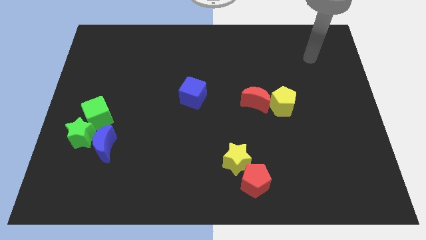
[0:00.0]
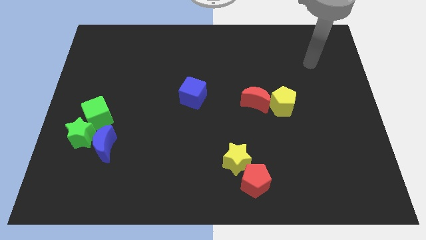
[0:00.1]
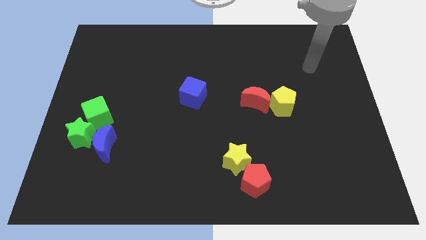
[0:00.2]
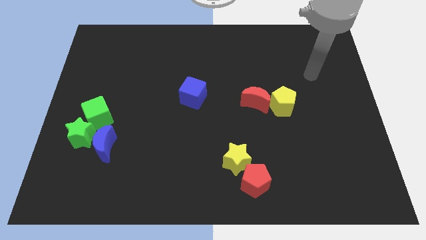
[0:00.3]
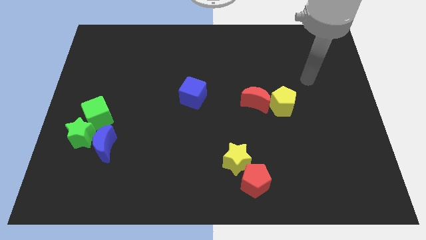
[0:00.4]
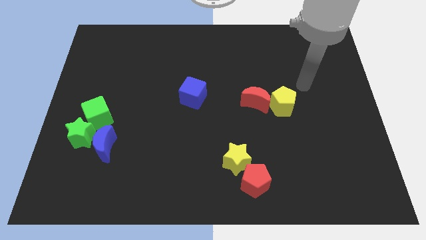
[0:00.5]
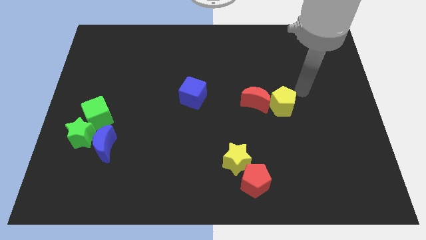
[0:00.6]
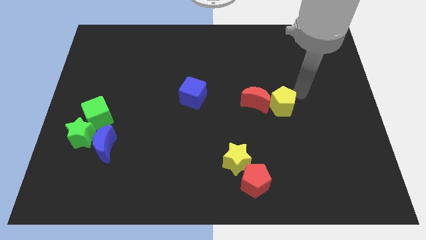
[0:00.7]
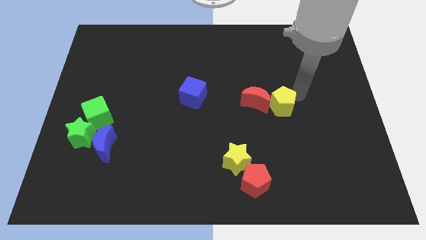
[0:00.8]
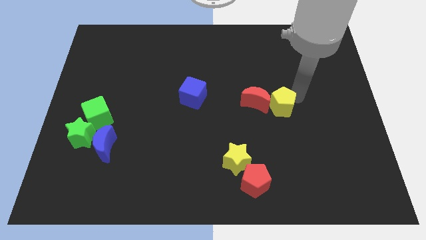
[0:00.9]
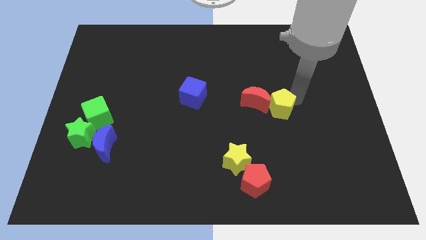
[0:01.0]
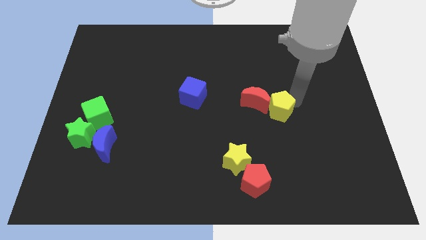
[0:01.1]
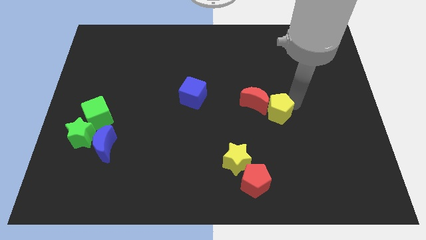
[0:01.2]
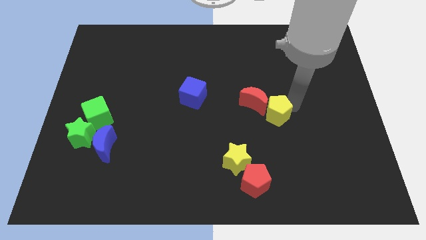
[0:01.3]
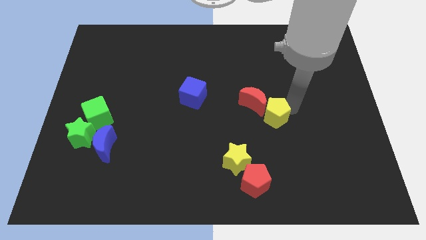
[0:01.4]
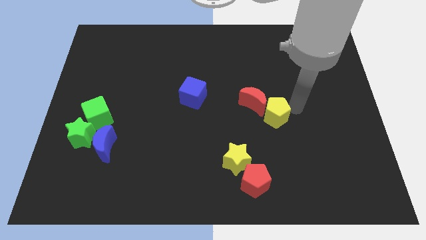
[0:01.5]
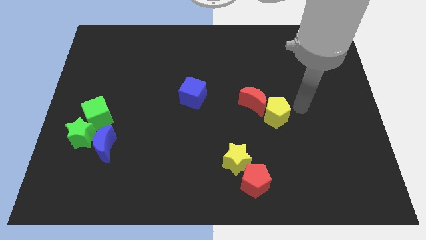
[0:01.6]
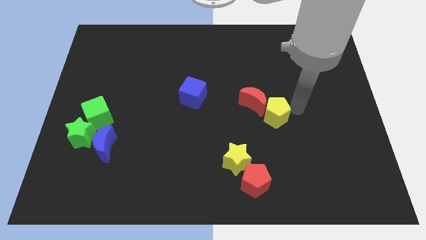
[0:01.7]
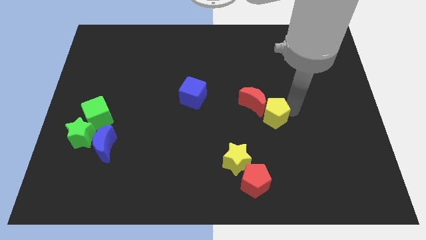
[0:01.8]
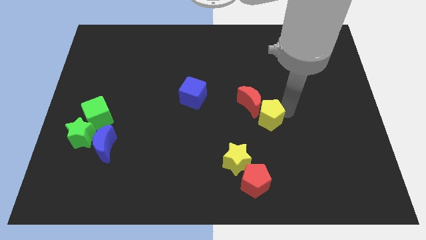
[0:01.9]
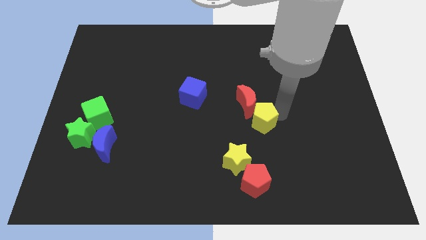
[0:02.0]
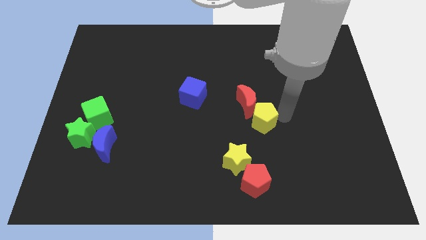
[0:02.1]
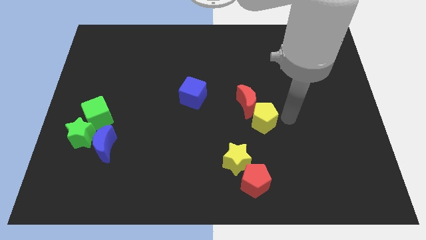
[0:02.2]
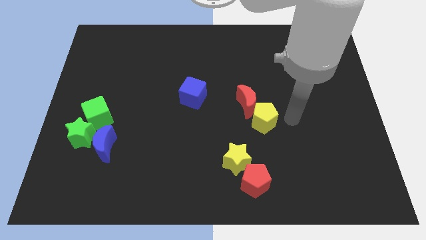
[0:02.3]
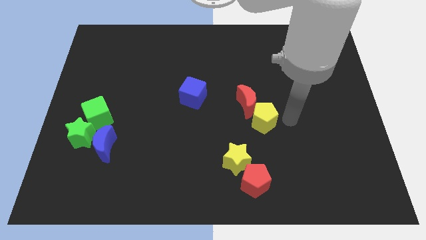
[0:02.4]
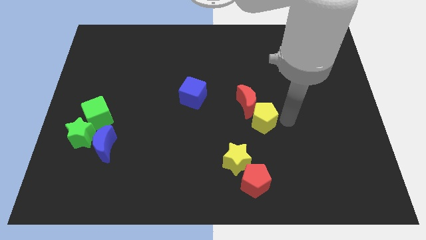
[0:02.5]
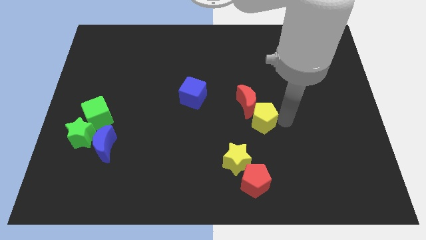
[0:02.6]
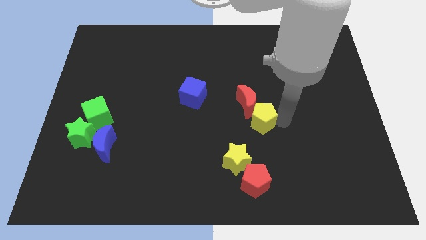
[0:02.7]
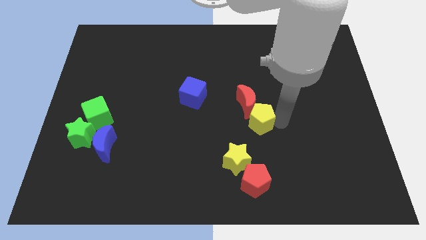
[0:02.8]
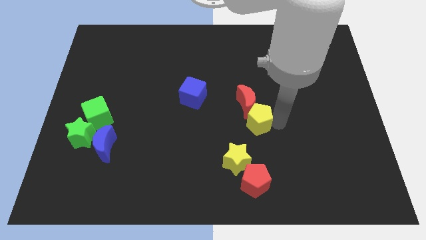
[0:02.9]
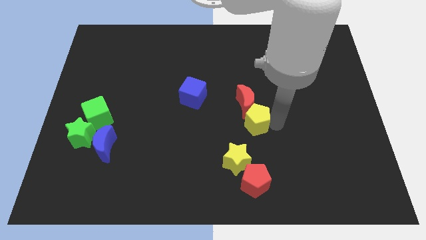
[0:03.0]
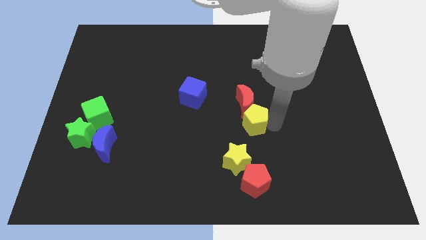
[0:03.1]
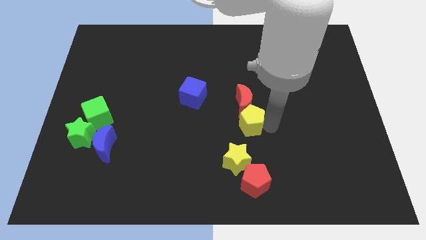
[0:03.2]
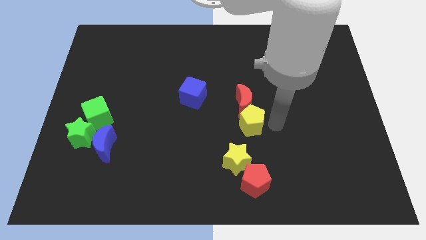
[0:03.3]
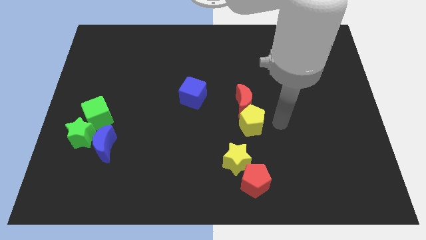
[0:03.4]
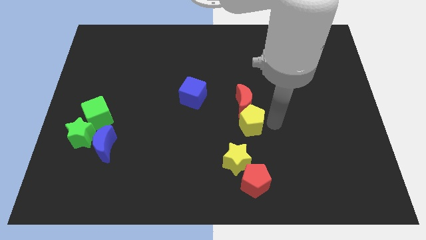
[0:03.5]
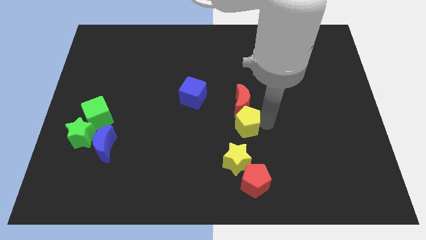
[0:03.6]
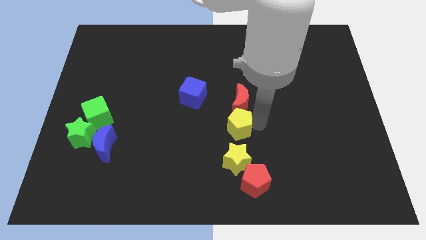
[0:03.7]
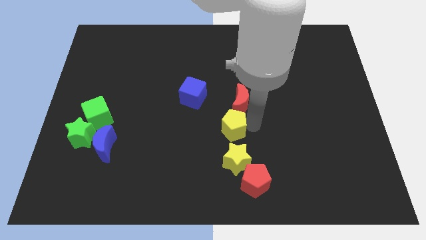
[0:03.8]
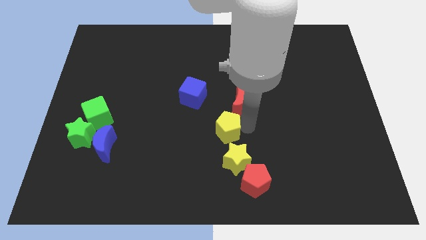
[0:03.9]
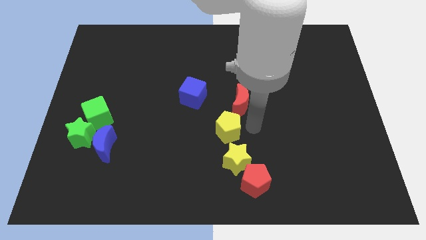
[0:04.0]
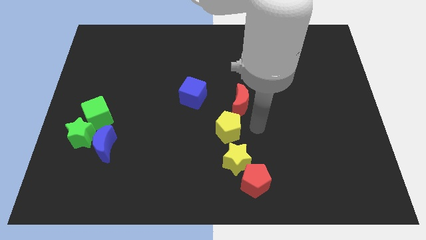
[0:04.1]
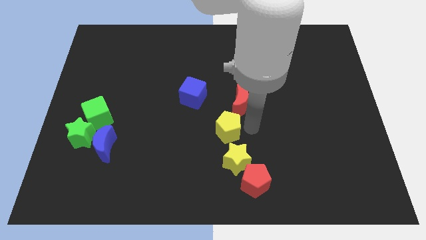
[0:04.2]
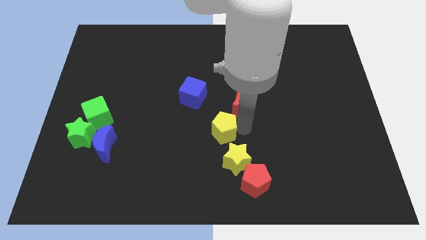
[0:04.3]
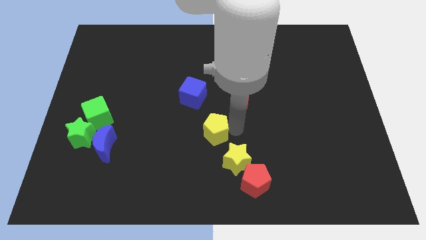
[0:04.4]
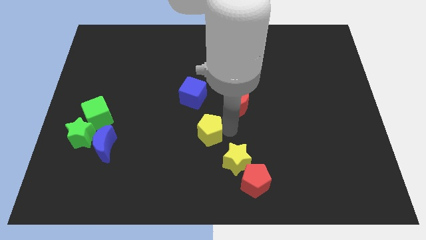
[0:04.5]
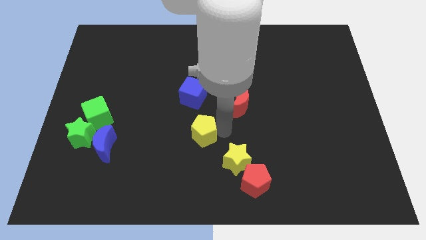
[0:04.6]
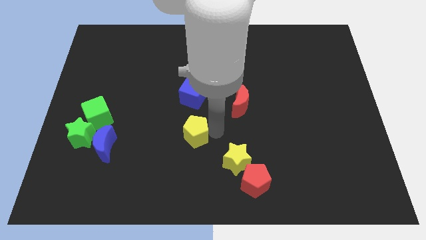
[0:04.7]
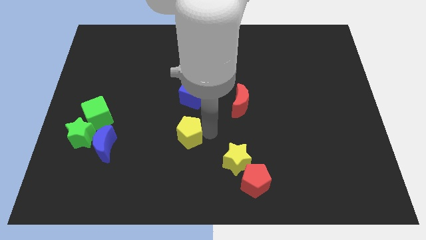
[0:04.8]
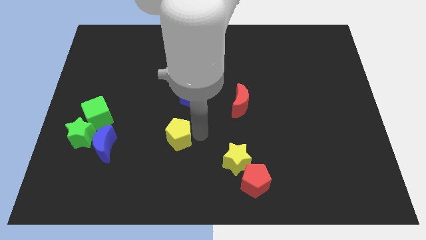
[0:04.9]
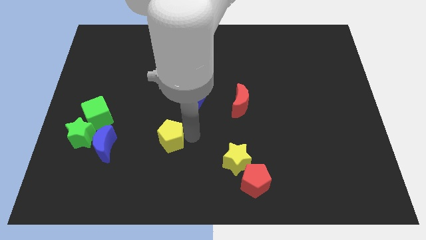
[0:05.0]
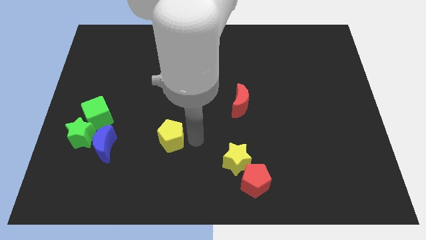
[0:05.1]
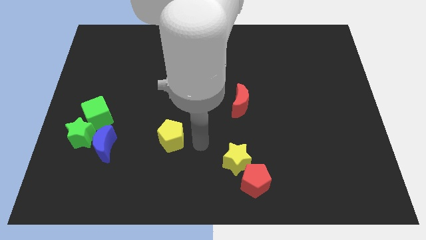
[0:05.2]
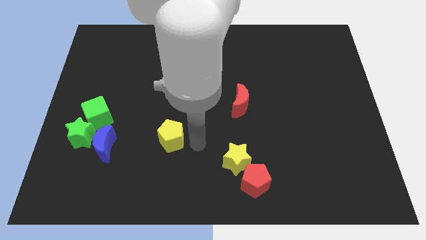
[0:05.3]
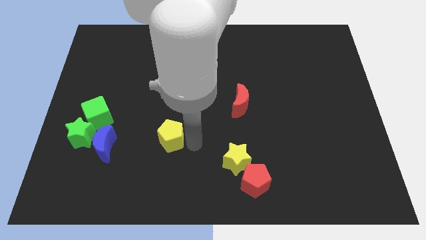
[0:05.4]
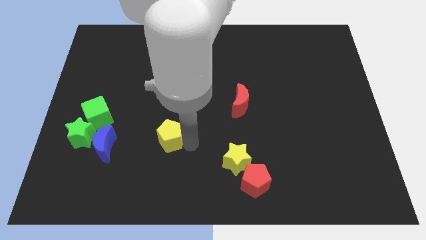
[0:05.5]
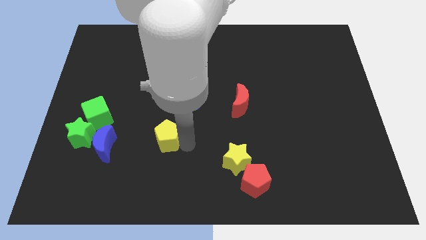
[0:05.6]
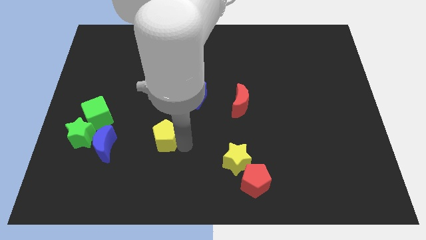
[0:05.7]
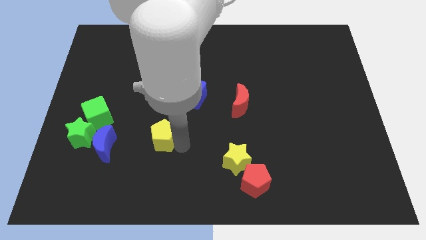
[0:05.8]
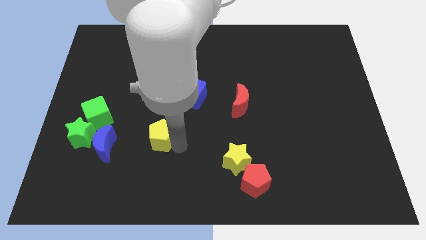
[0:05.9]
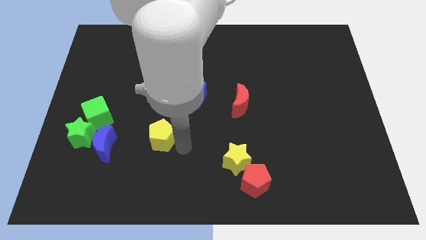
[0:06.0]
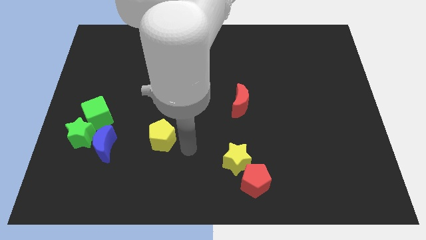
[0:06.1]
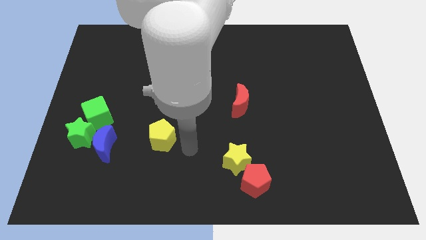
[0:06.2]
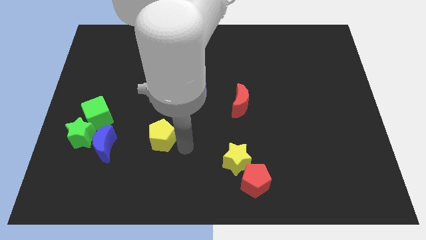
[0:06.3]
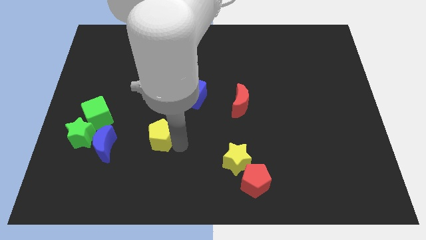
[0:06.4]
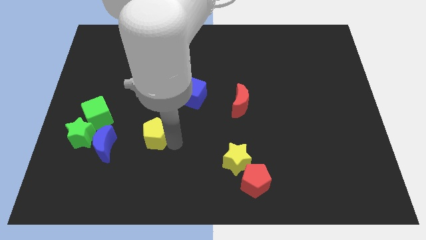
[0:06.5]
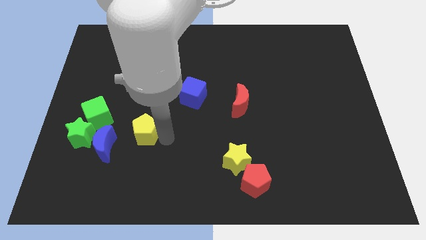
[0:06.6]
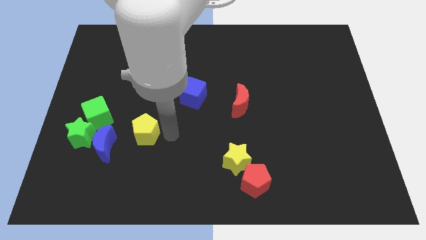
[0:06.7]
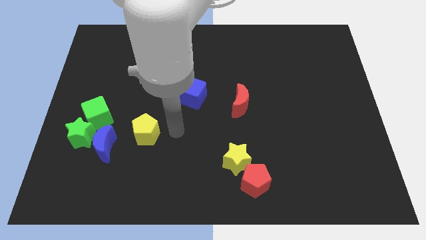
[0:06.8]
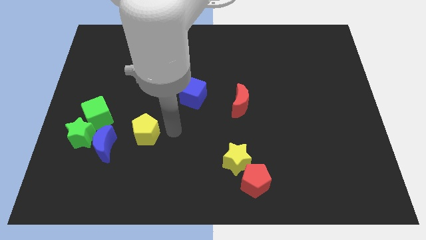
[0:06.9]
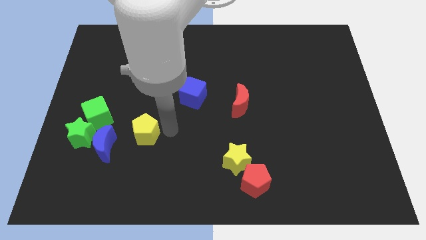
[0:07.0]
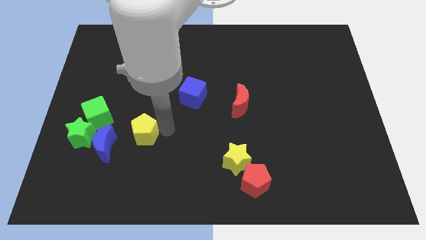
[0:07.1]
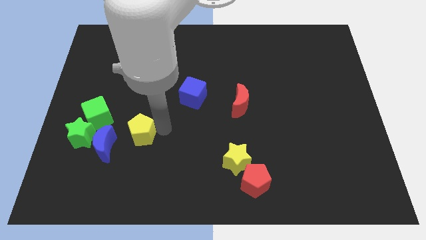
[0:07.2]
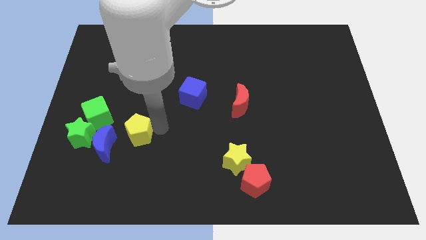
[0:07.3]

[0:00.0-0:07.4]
push the yellow pentagon to the bottom right of the green cube
